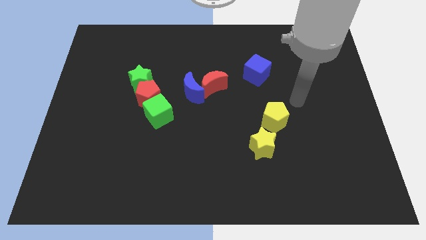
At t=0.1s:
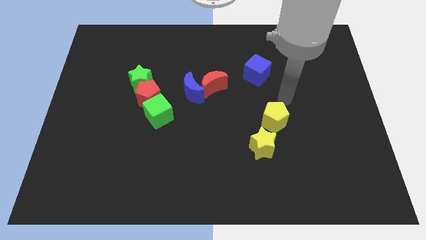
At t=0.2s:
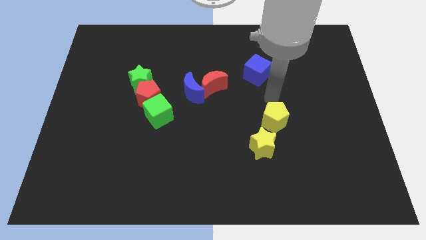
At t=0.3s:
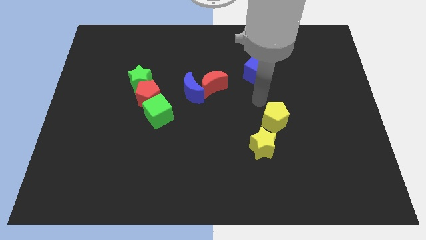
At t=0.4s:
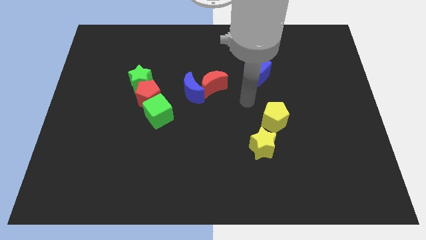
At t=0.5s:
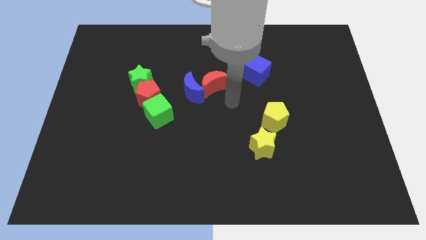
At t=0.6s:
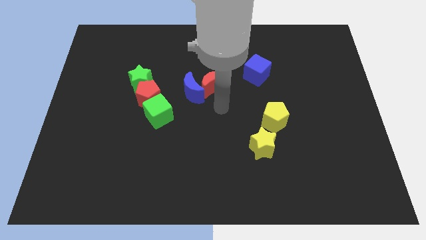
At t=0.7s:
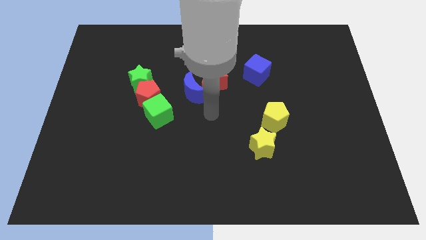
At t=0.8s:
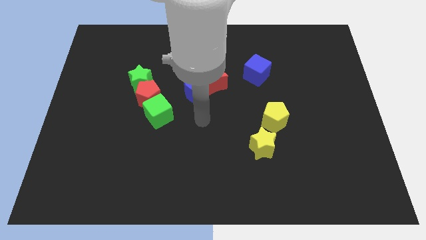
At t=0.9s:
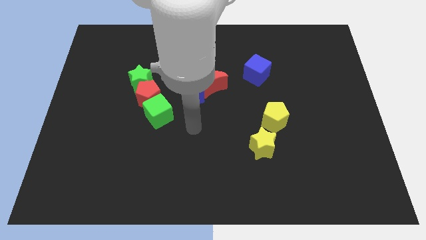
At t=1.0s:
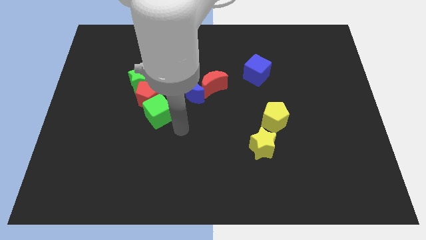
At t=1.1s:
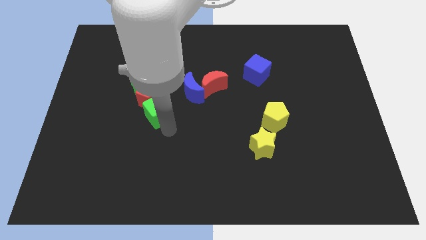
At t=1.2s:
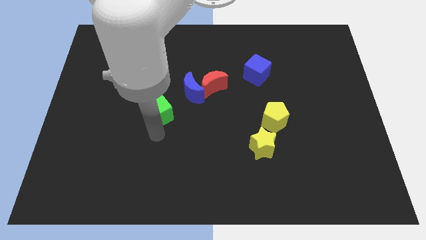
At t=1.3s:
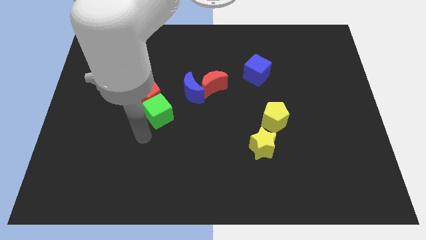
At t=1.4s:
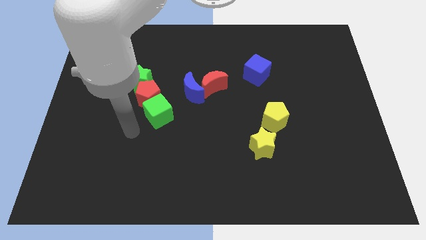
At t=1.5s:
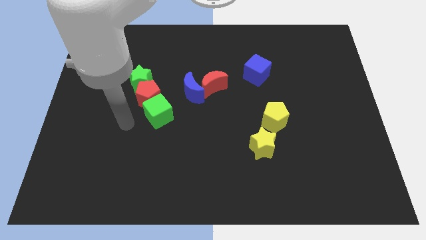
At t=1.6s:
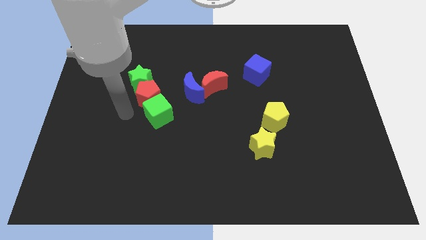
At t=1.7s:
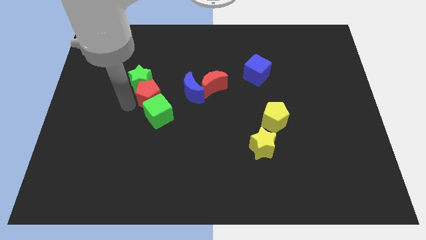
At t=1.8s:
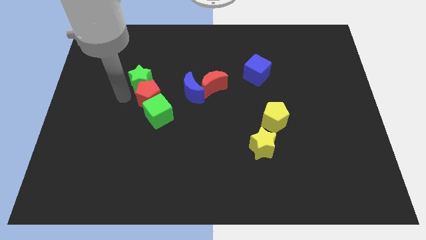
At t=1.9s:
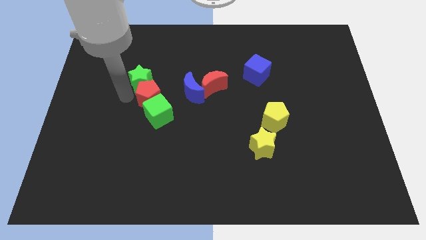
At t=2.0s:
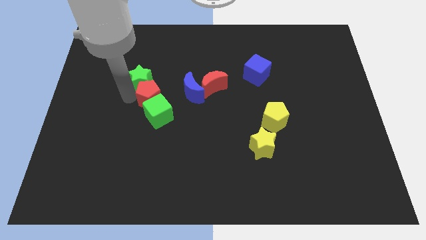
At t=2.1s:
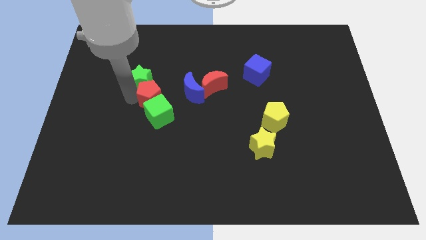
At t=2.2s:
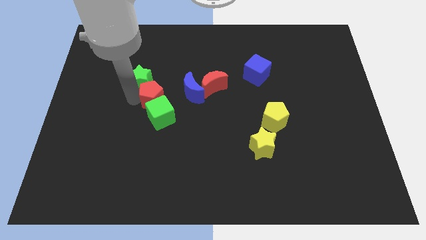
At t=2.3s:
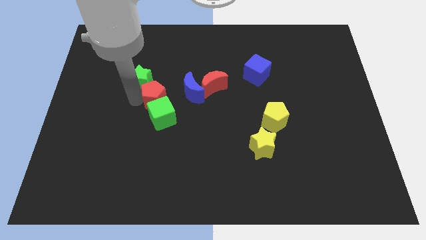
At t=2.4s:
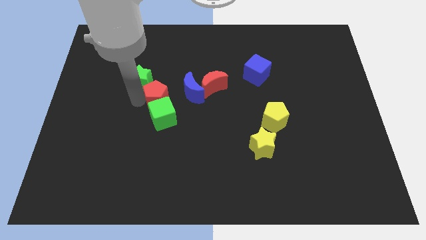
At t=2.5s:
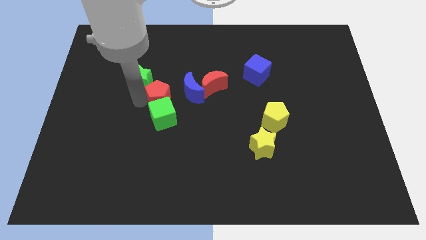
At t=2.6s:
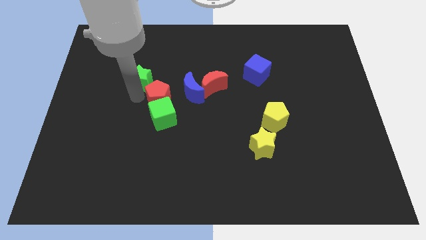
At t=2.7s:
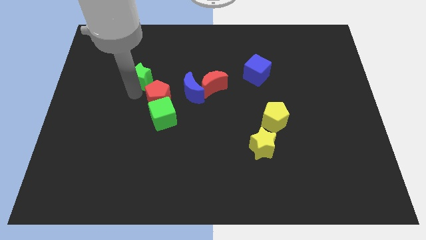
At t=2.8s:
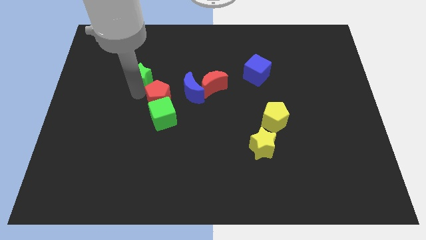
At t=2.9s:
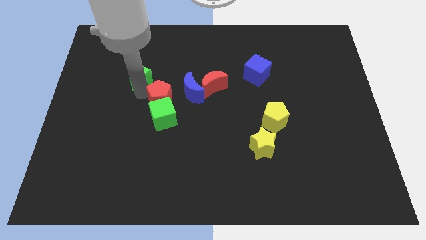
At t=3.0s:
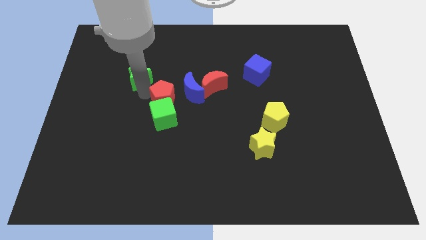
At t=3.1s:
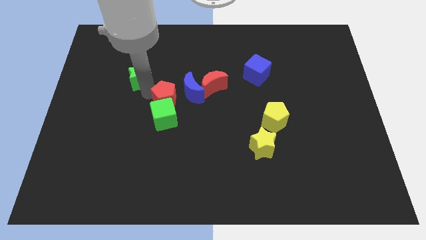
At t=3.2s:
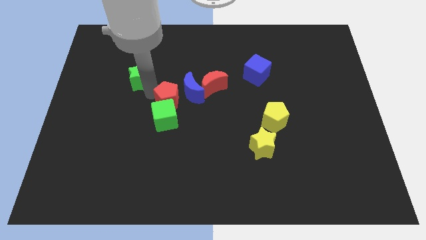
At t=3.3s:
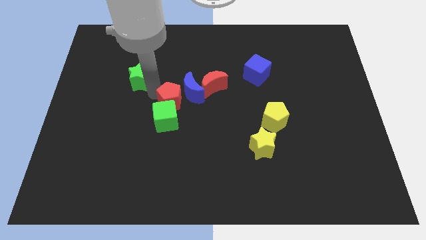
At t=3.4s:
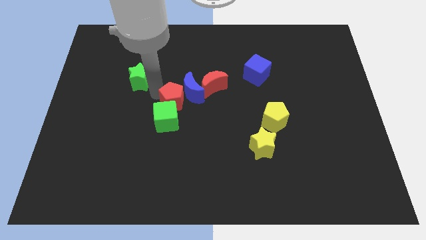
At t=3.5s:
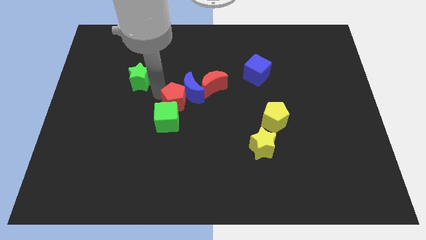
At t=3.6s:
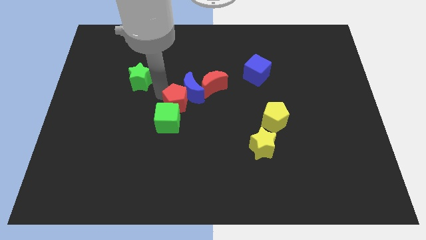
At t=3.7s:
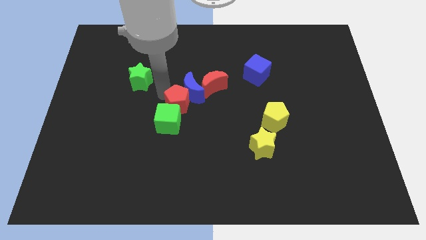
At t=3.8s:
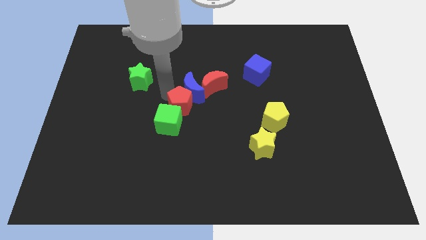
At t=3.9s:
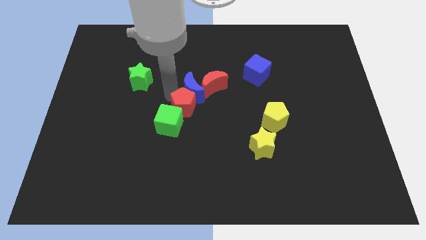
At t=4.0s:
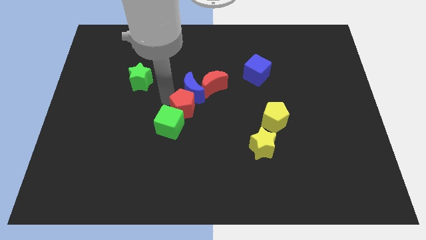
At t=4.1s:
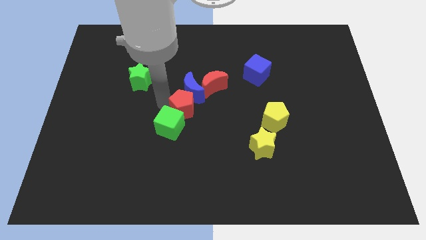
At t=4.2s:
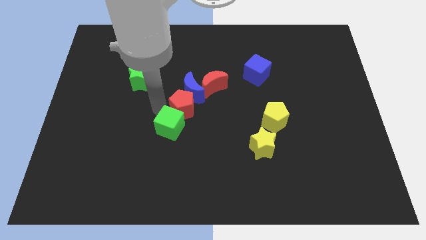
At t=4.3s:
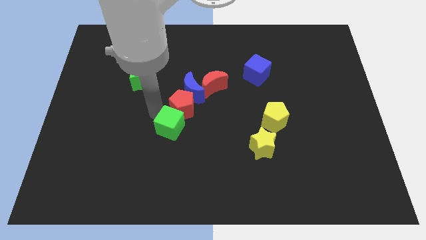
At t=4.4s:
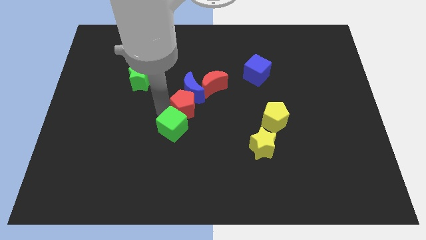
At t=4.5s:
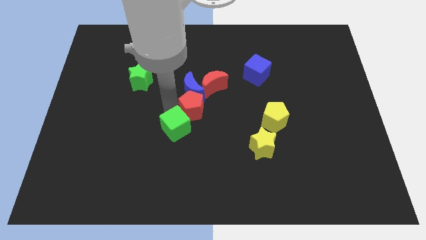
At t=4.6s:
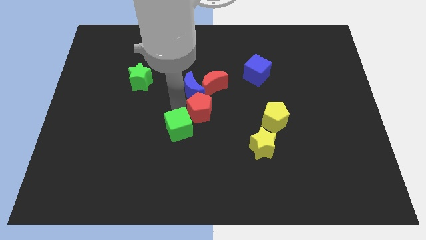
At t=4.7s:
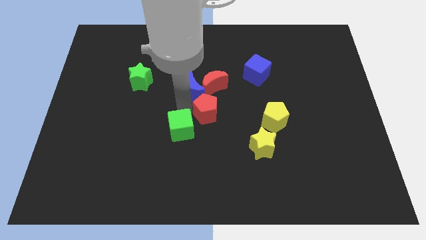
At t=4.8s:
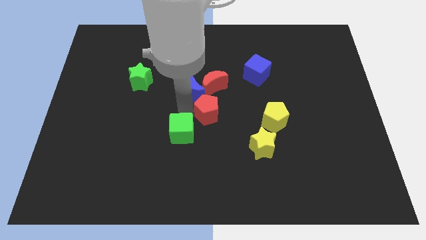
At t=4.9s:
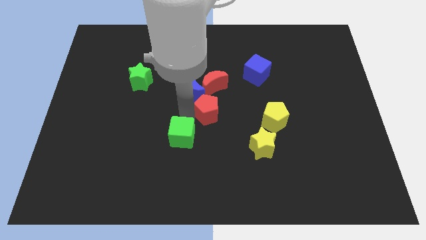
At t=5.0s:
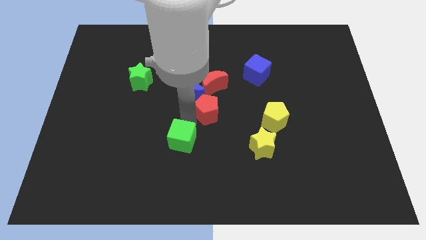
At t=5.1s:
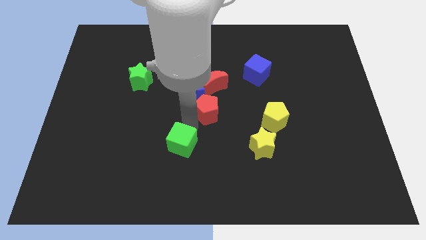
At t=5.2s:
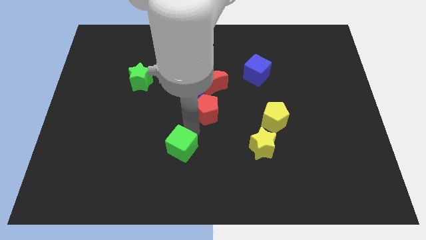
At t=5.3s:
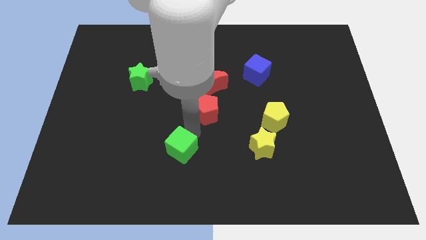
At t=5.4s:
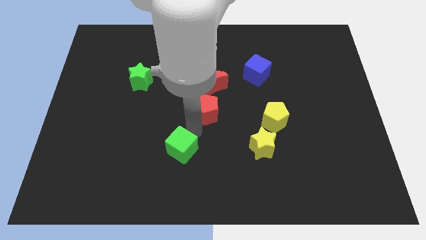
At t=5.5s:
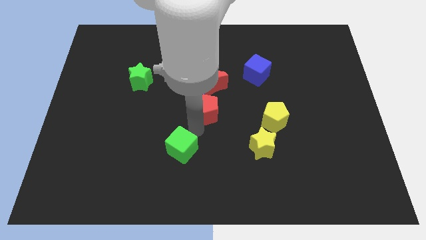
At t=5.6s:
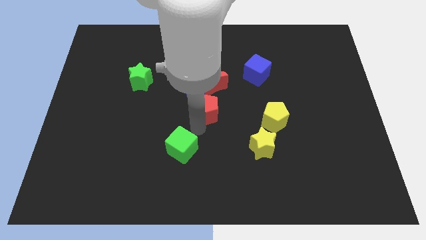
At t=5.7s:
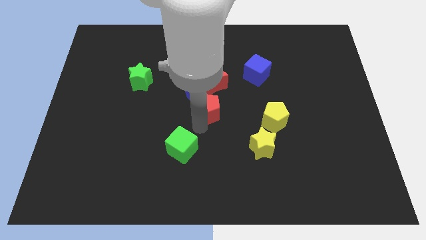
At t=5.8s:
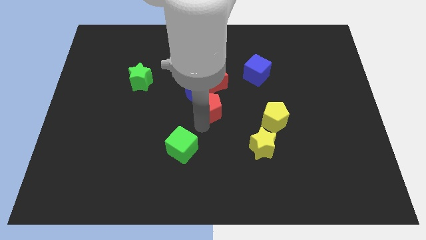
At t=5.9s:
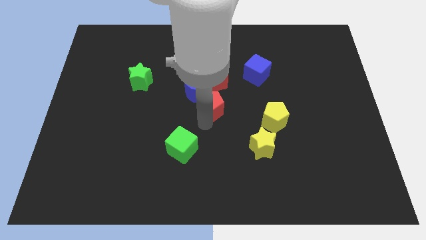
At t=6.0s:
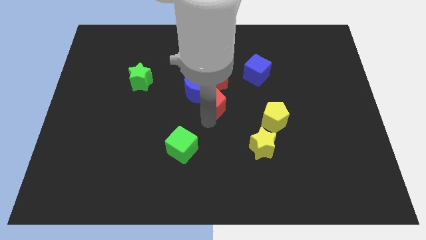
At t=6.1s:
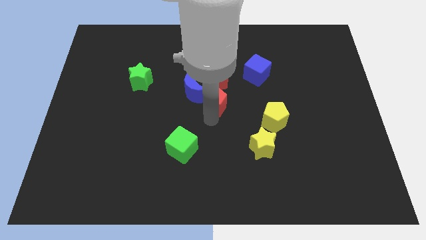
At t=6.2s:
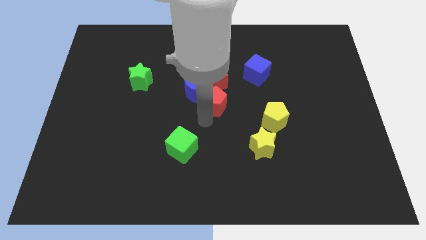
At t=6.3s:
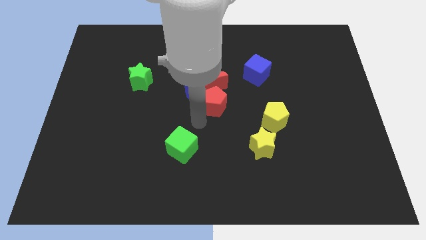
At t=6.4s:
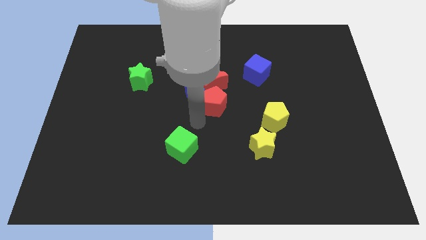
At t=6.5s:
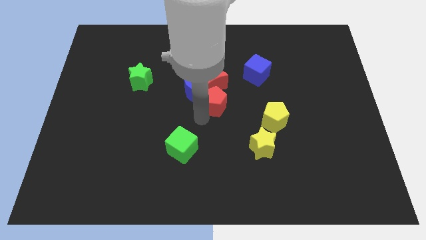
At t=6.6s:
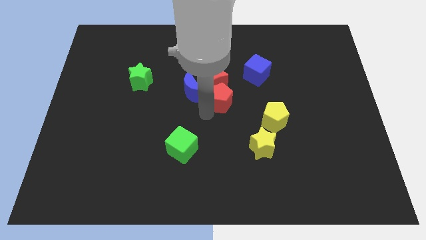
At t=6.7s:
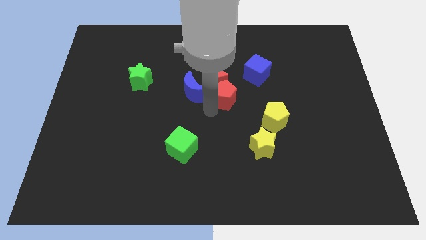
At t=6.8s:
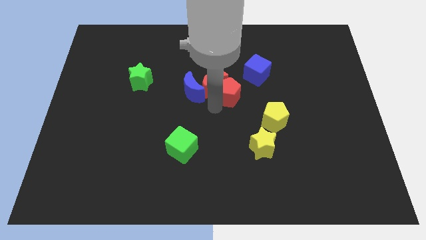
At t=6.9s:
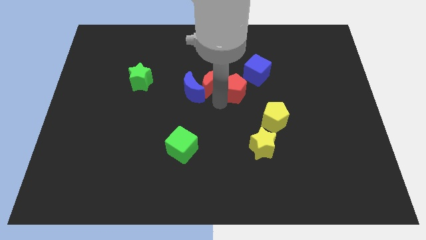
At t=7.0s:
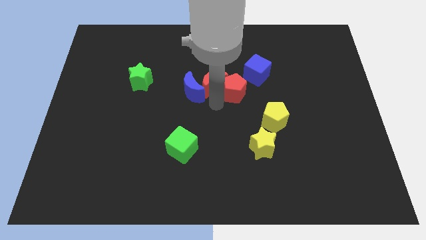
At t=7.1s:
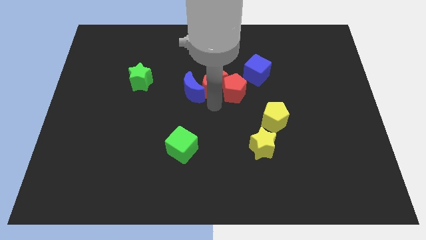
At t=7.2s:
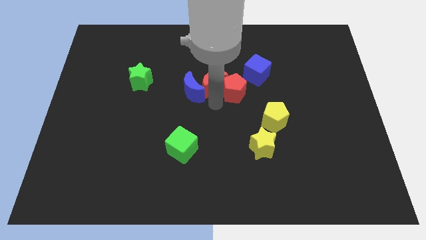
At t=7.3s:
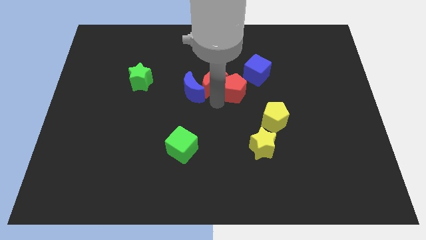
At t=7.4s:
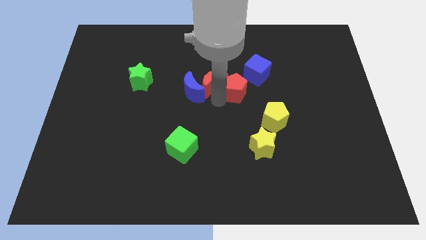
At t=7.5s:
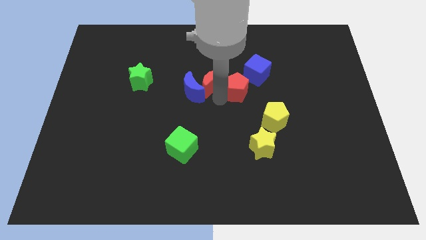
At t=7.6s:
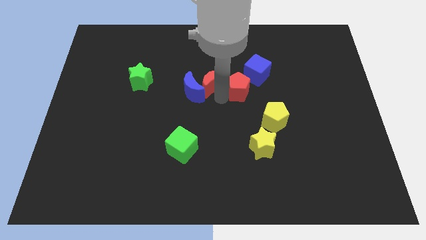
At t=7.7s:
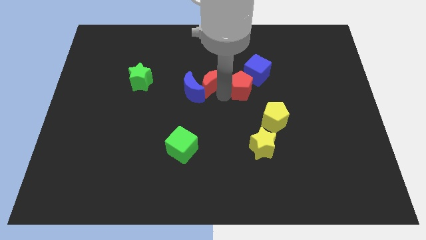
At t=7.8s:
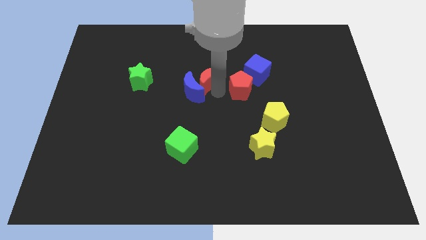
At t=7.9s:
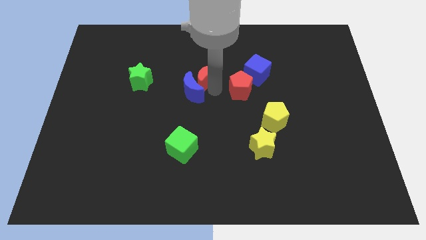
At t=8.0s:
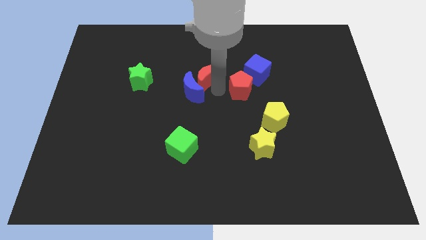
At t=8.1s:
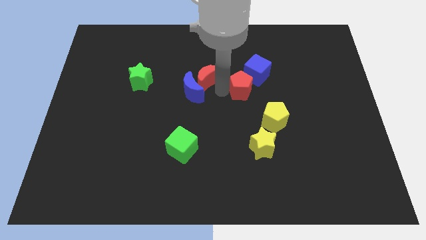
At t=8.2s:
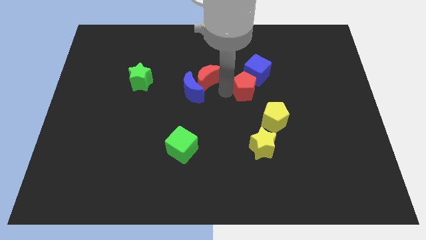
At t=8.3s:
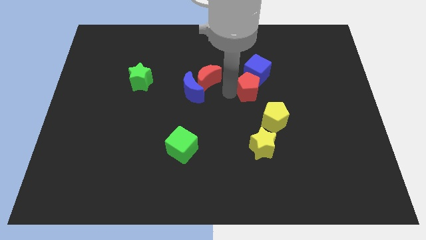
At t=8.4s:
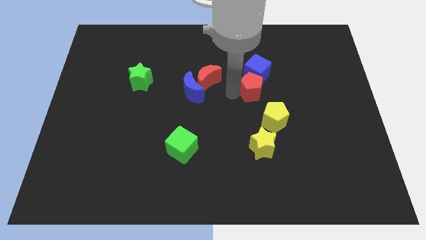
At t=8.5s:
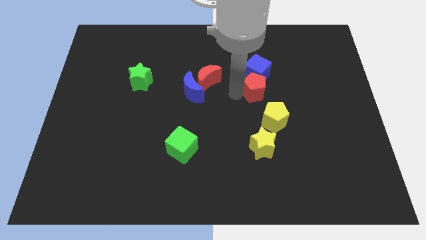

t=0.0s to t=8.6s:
put the red pentagon to the bottom right of the blue cube
